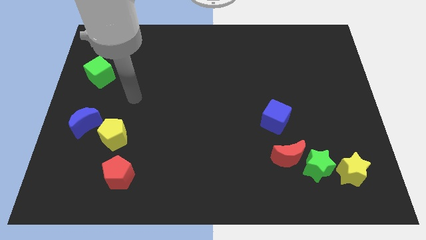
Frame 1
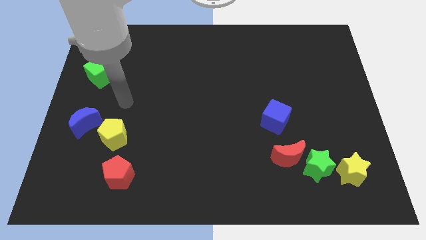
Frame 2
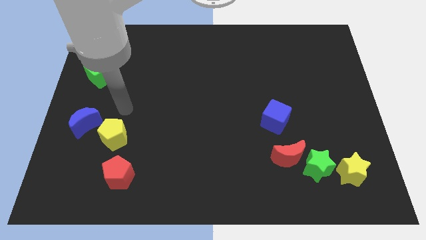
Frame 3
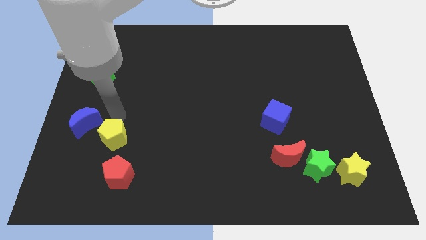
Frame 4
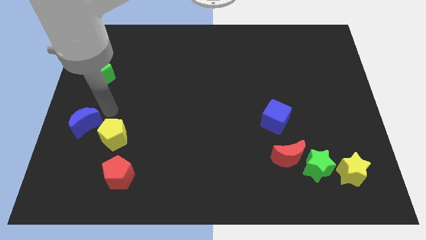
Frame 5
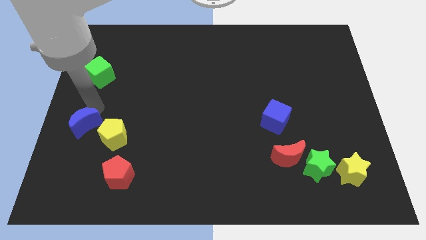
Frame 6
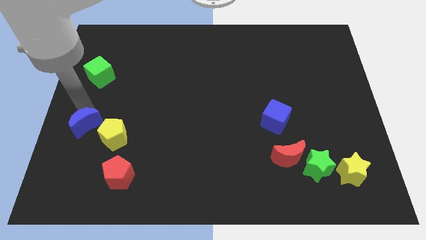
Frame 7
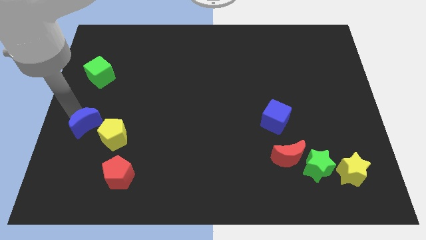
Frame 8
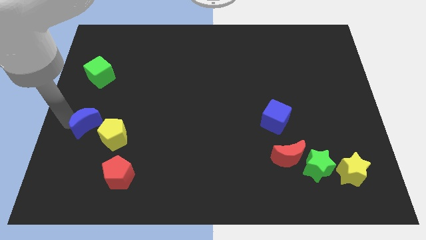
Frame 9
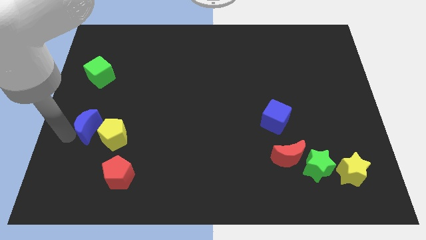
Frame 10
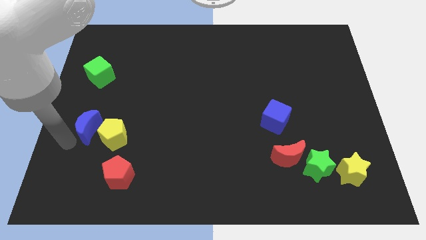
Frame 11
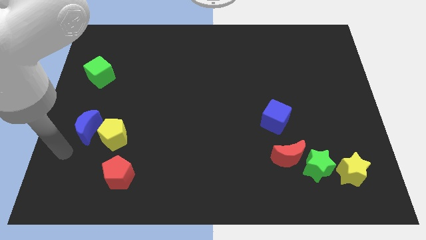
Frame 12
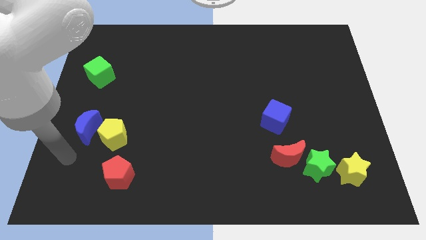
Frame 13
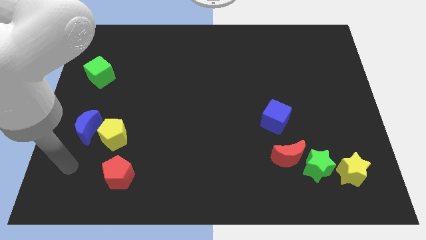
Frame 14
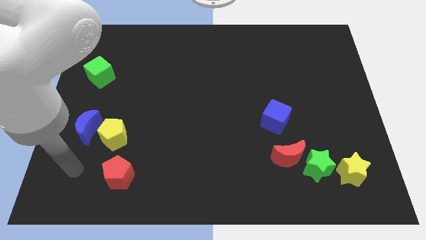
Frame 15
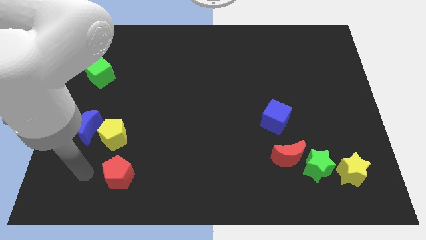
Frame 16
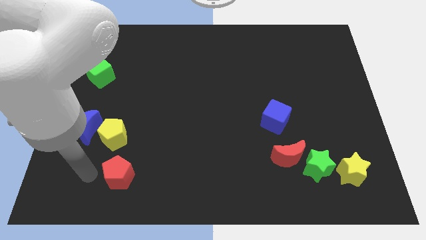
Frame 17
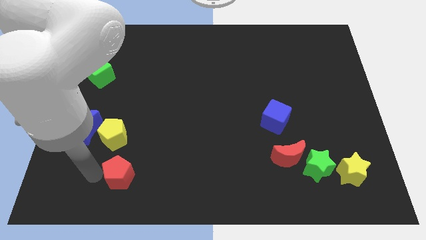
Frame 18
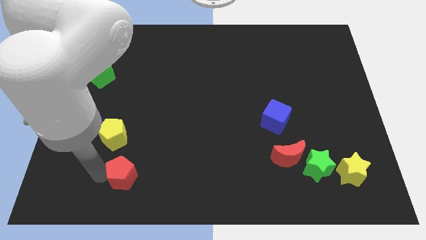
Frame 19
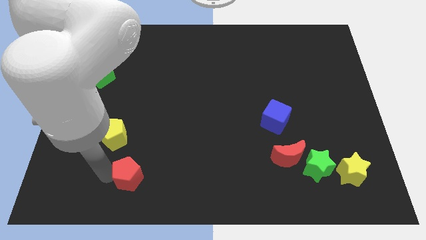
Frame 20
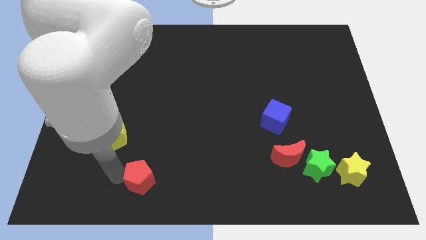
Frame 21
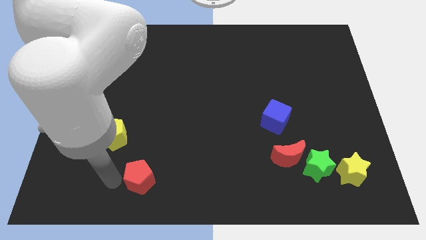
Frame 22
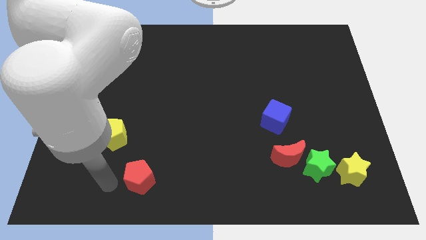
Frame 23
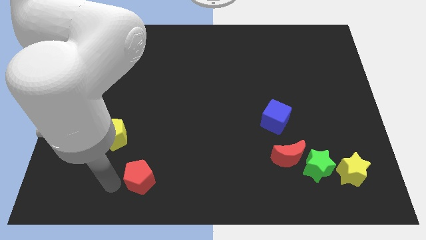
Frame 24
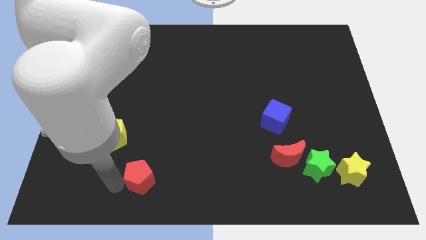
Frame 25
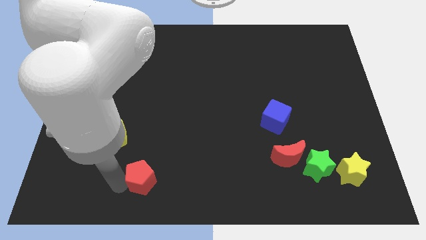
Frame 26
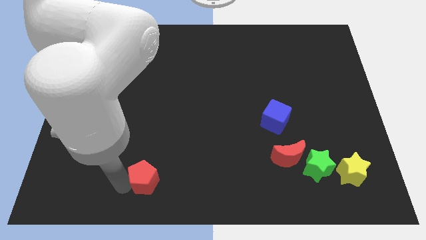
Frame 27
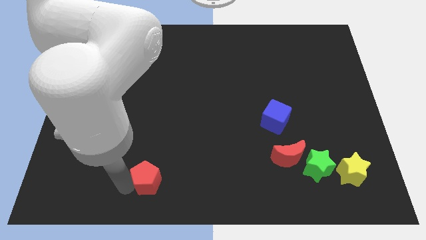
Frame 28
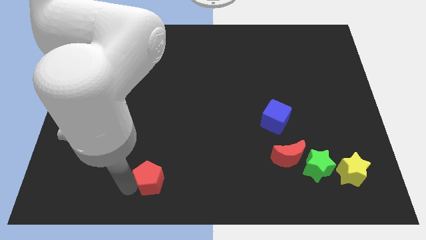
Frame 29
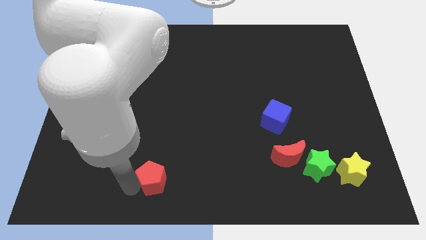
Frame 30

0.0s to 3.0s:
slide the red pentagon to the right a little bit

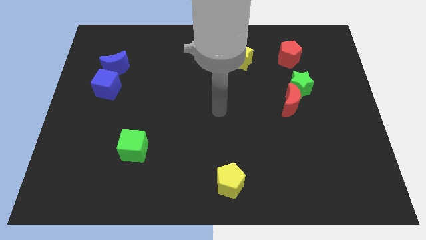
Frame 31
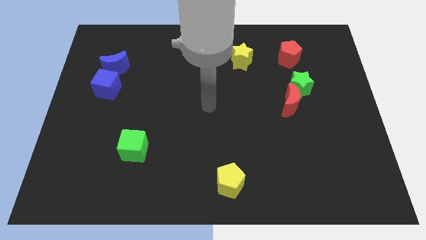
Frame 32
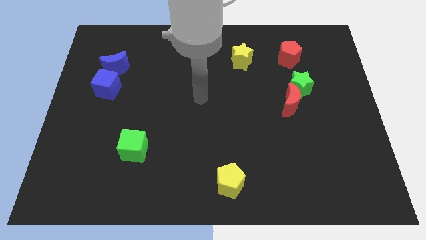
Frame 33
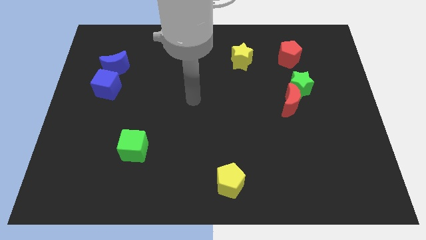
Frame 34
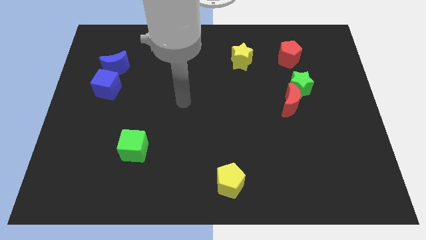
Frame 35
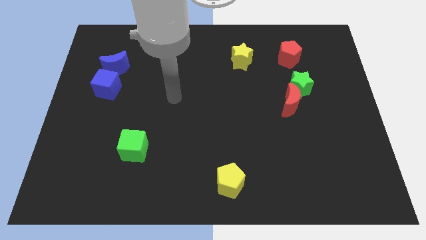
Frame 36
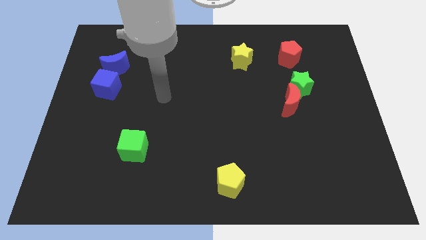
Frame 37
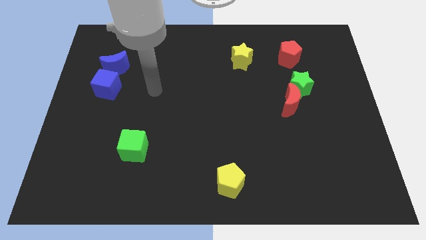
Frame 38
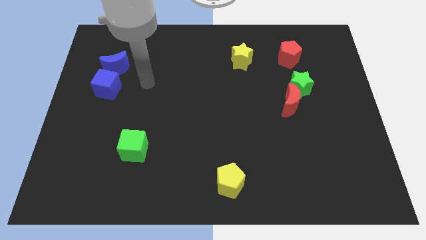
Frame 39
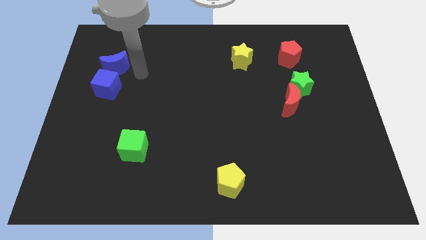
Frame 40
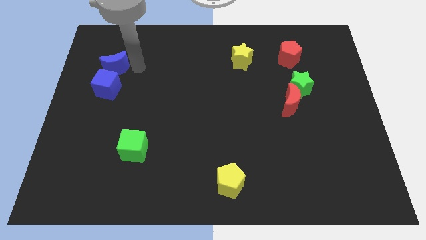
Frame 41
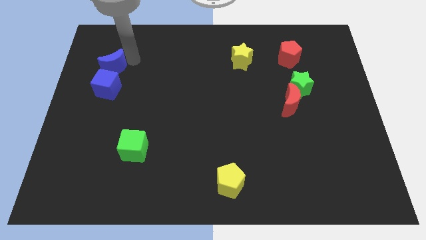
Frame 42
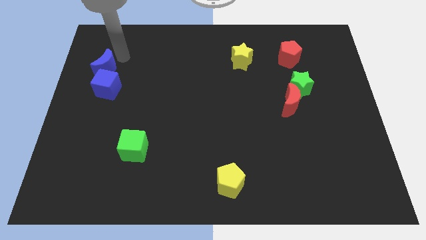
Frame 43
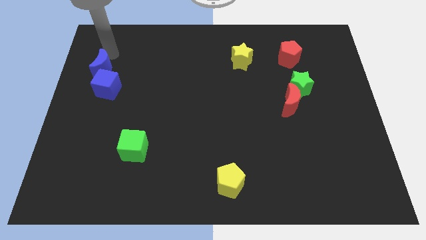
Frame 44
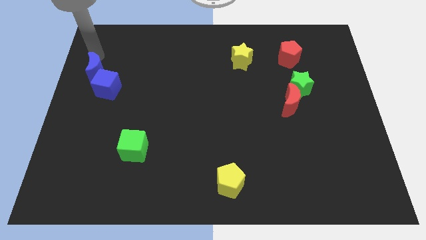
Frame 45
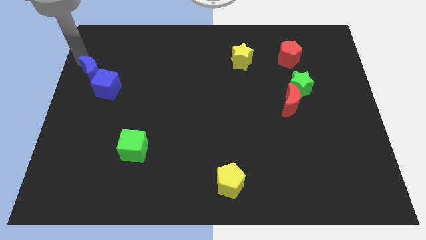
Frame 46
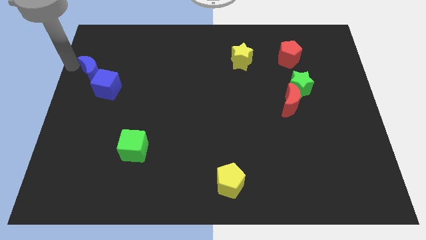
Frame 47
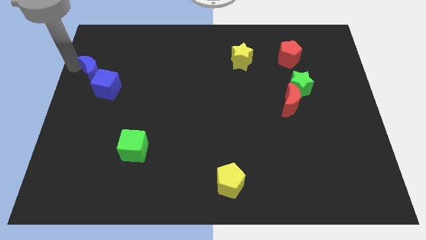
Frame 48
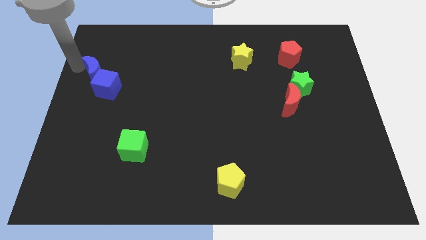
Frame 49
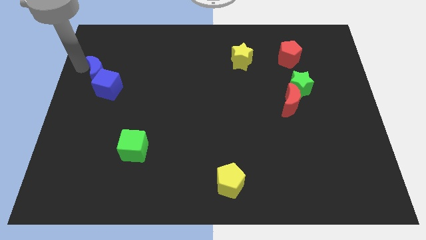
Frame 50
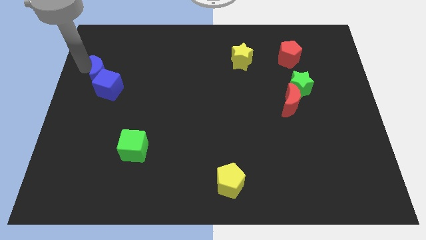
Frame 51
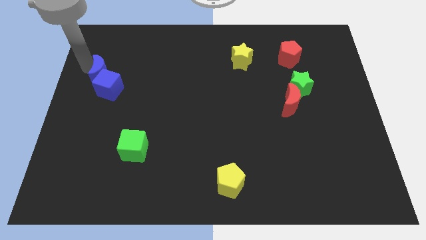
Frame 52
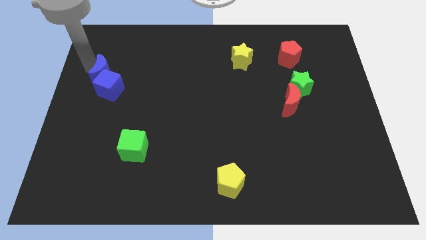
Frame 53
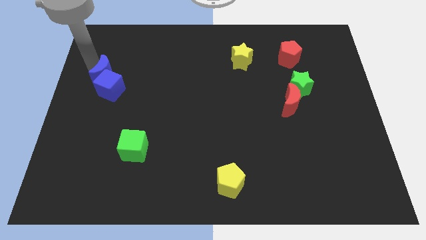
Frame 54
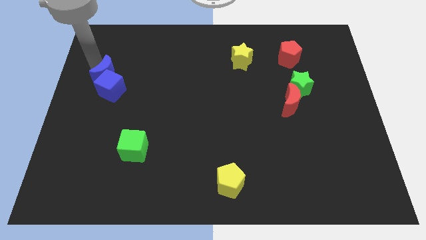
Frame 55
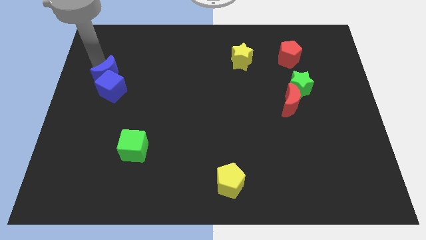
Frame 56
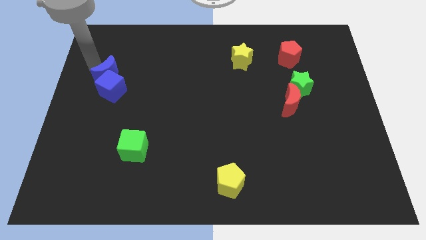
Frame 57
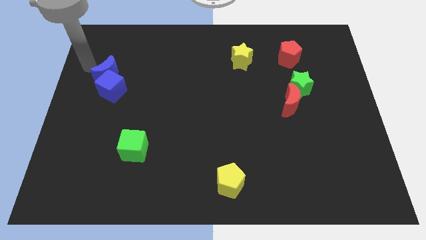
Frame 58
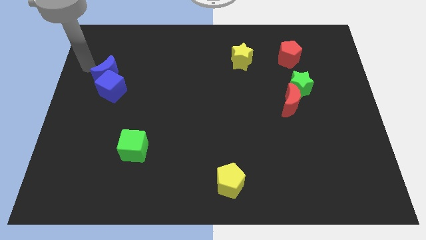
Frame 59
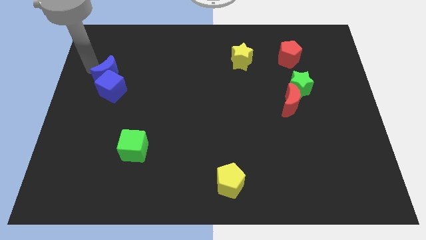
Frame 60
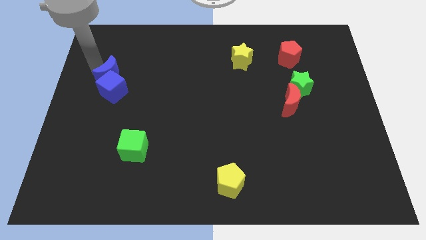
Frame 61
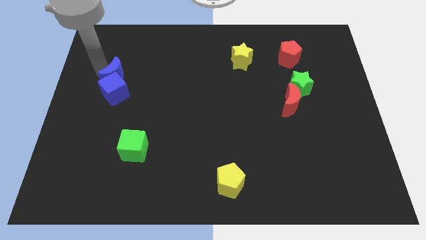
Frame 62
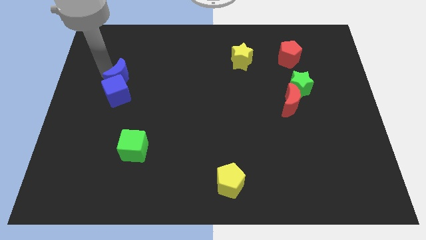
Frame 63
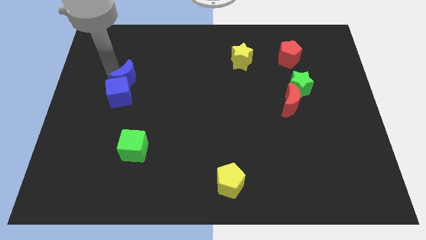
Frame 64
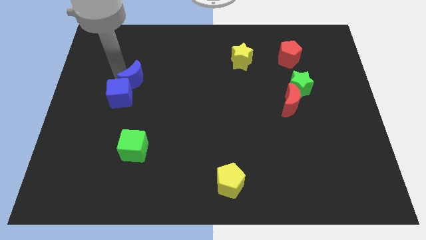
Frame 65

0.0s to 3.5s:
slide the blue moon down and to the right diagonally somewhat

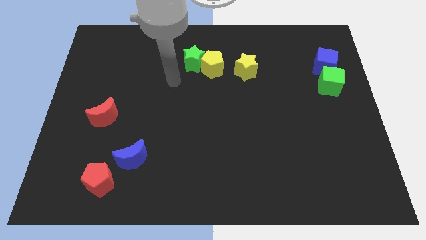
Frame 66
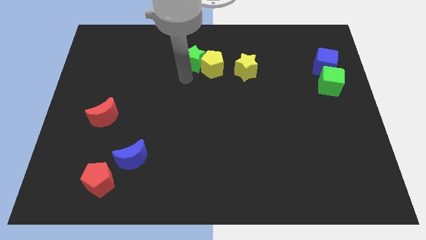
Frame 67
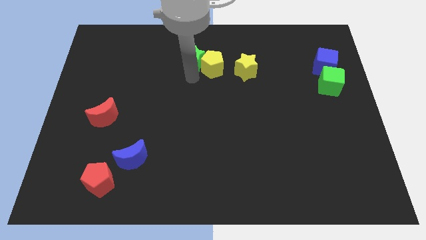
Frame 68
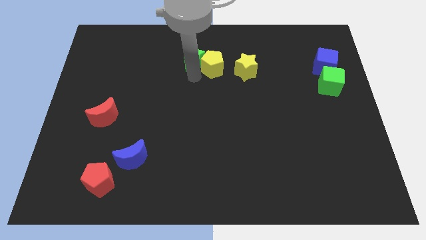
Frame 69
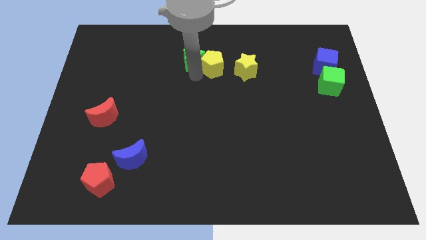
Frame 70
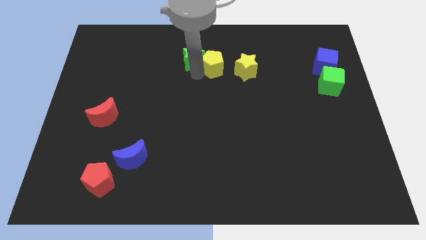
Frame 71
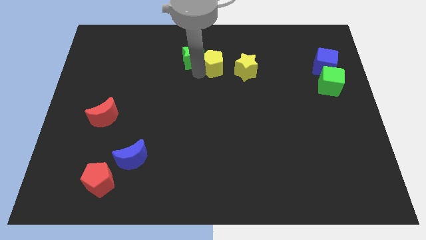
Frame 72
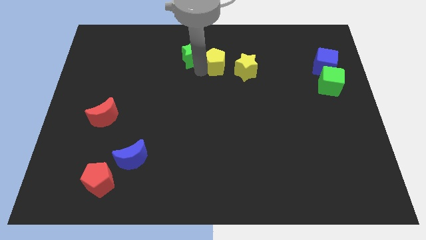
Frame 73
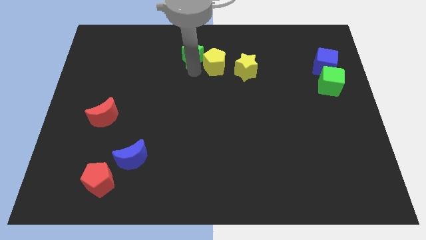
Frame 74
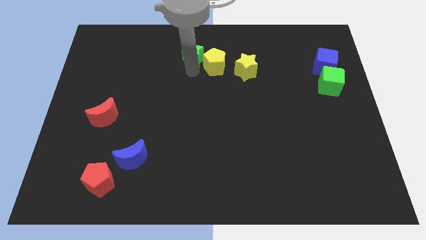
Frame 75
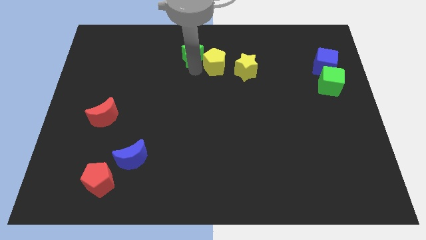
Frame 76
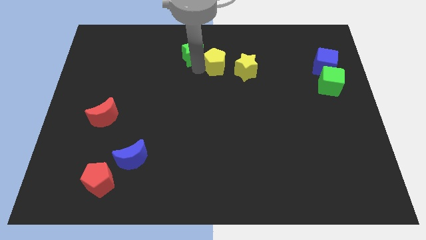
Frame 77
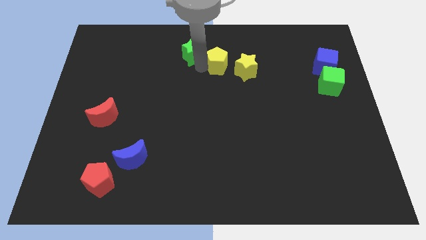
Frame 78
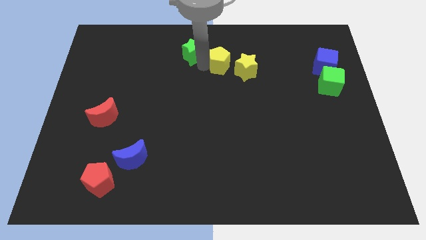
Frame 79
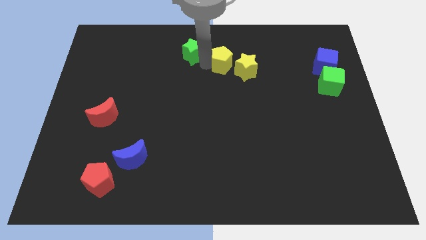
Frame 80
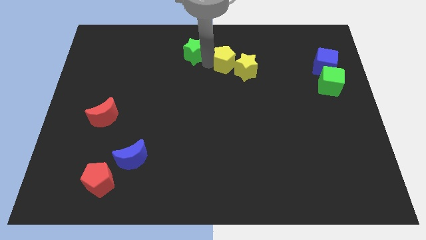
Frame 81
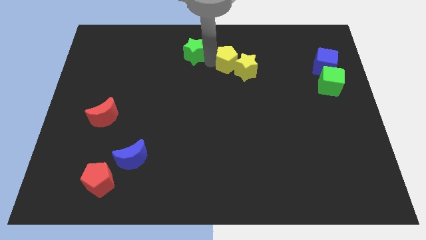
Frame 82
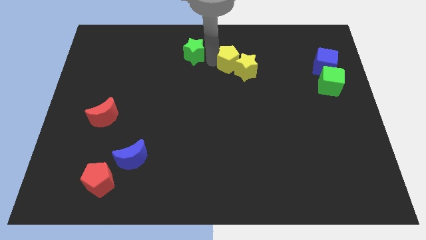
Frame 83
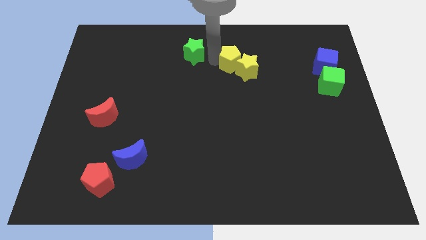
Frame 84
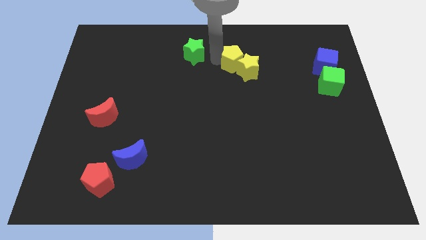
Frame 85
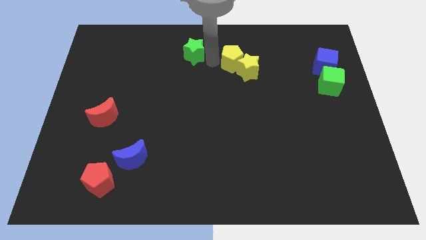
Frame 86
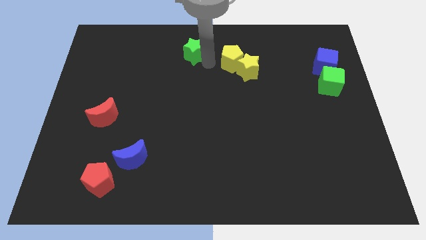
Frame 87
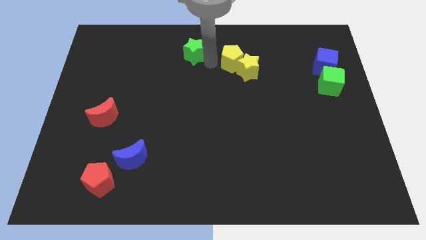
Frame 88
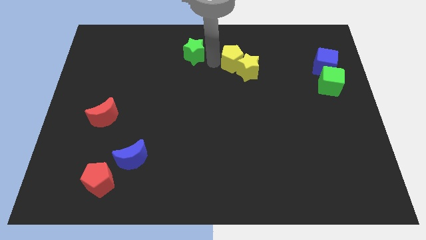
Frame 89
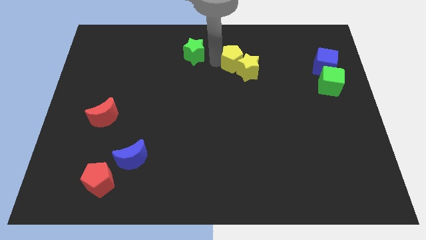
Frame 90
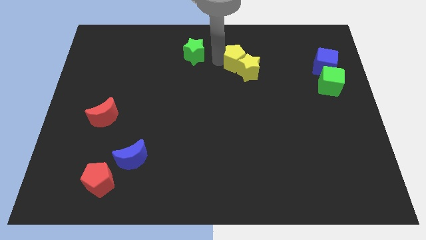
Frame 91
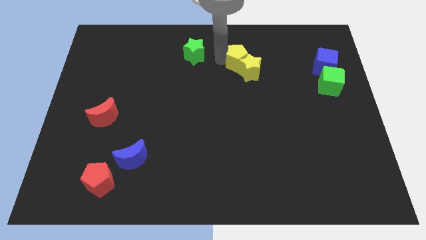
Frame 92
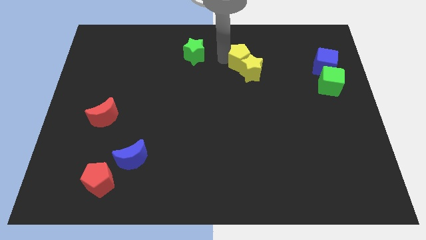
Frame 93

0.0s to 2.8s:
slightly slide the yellow pentagon right
